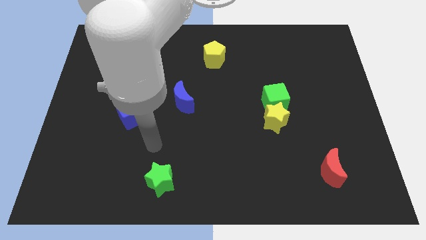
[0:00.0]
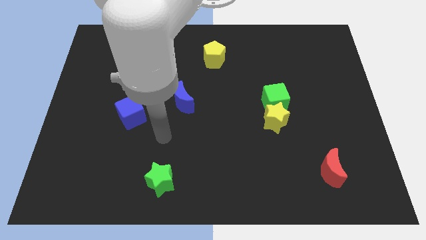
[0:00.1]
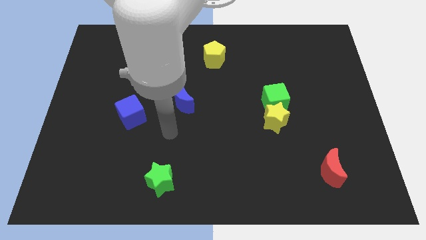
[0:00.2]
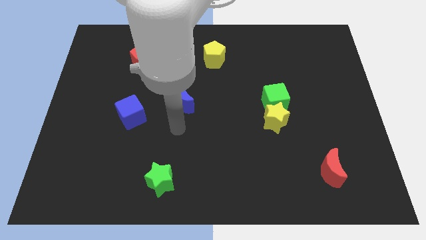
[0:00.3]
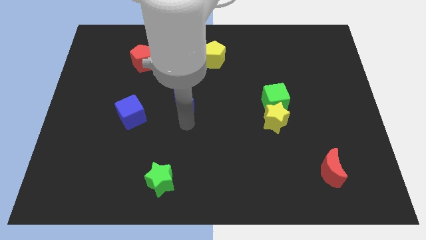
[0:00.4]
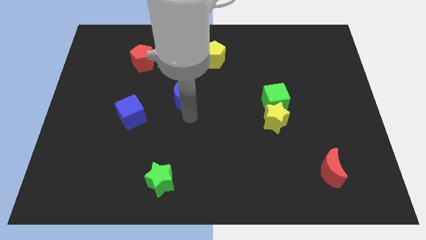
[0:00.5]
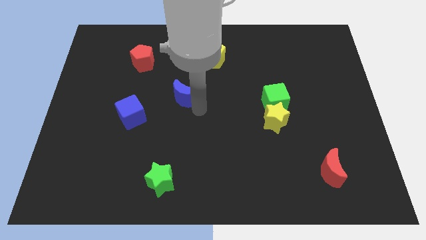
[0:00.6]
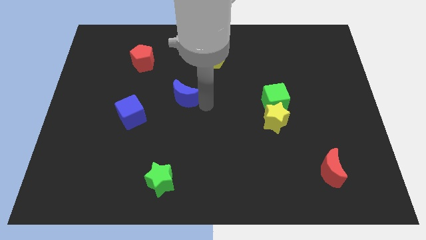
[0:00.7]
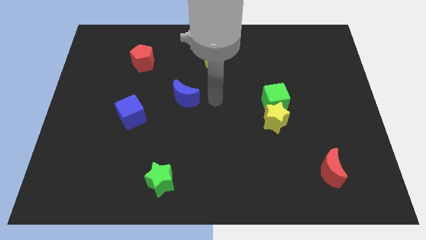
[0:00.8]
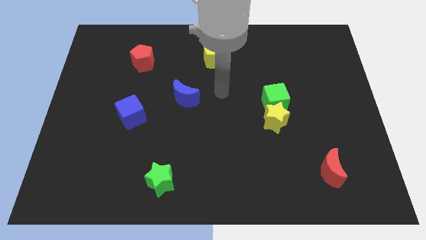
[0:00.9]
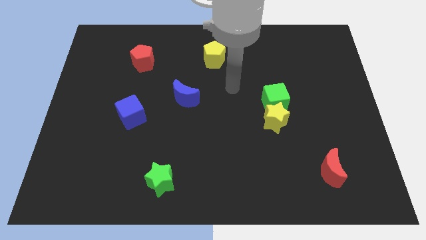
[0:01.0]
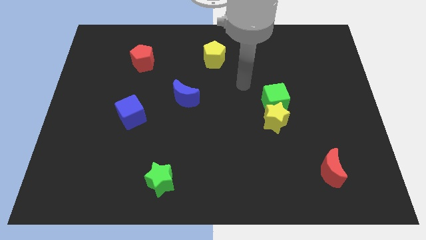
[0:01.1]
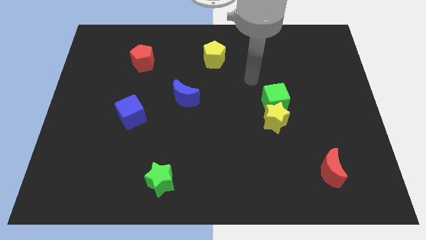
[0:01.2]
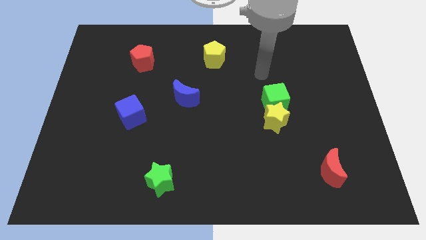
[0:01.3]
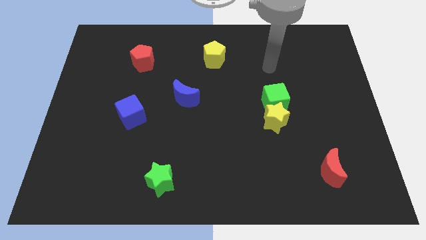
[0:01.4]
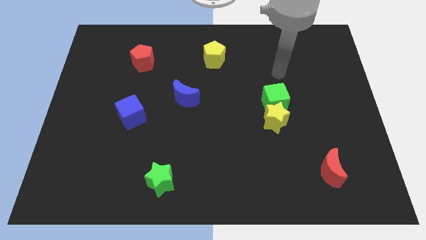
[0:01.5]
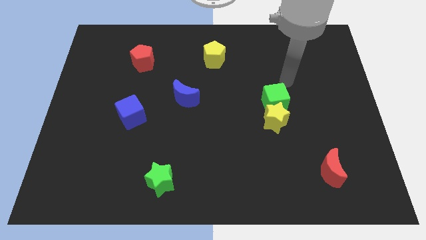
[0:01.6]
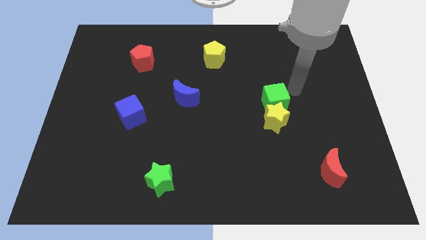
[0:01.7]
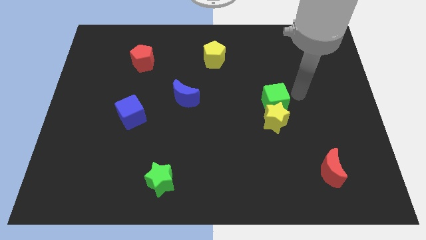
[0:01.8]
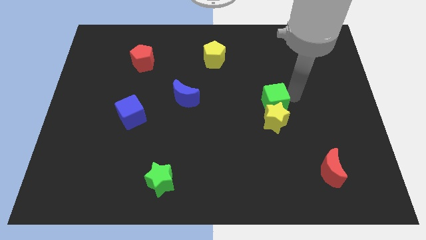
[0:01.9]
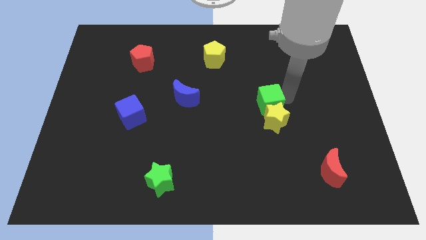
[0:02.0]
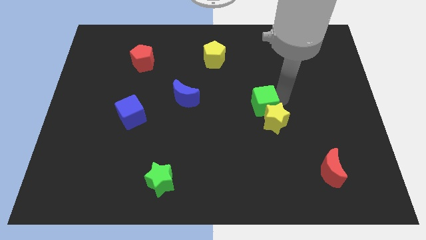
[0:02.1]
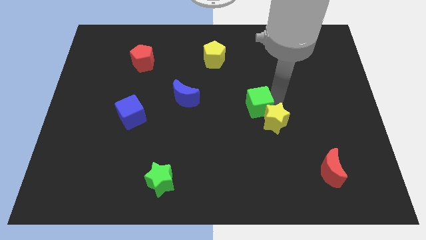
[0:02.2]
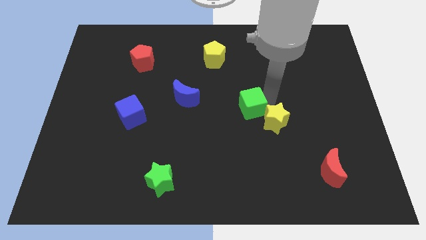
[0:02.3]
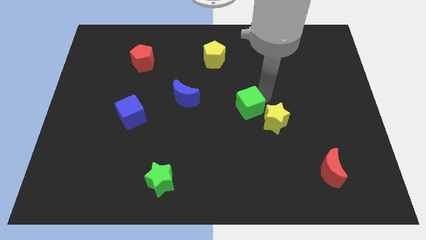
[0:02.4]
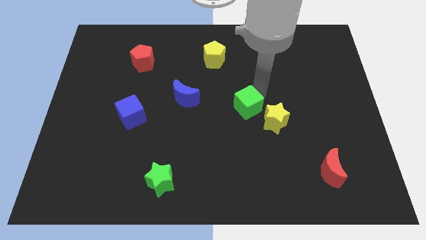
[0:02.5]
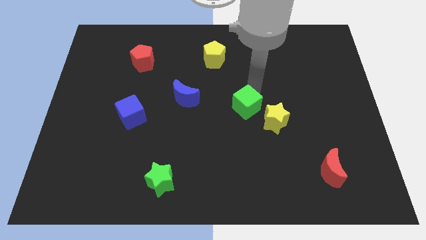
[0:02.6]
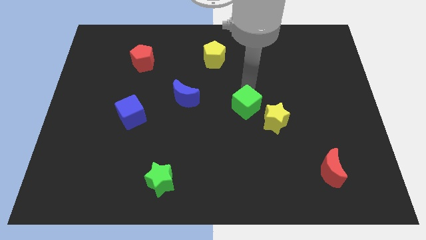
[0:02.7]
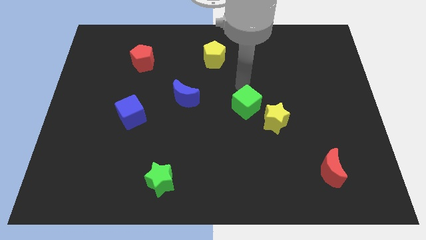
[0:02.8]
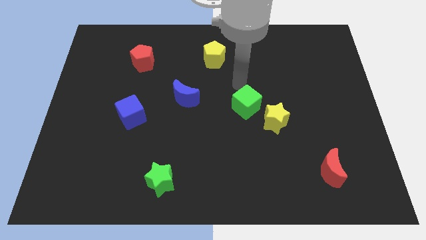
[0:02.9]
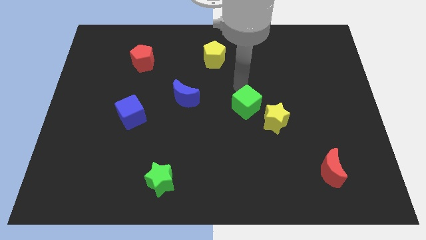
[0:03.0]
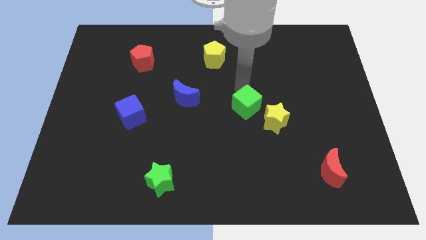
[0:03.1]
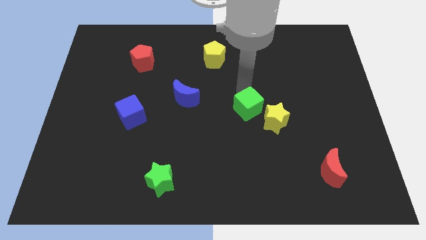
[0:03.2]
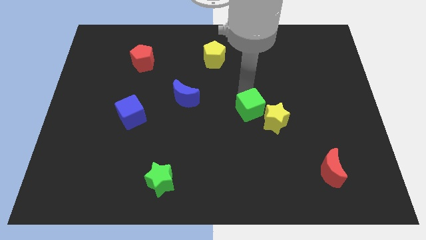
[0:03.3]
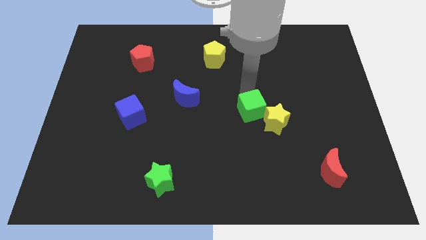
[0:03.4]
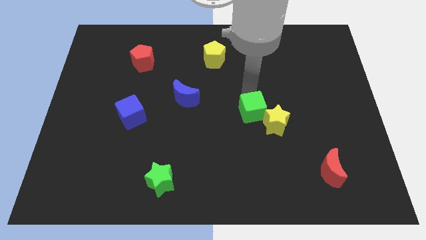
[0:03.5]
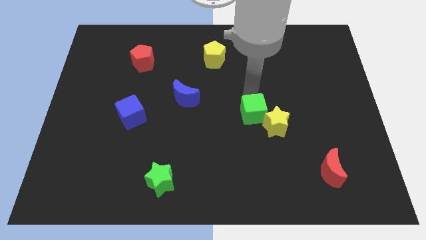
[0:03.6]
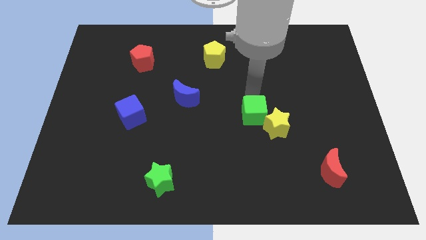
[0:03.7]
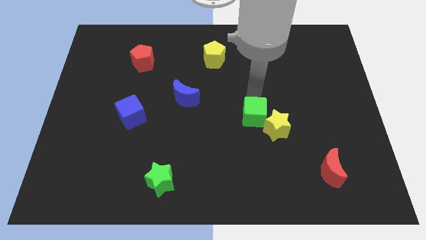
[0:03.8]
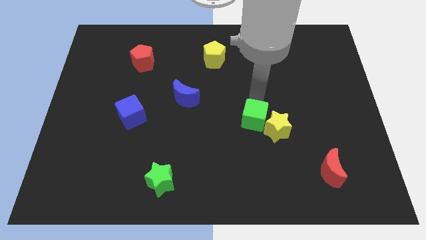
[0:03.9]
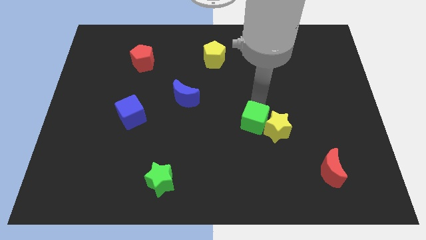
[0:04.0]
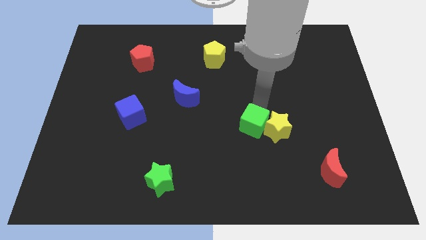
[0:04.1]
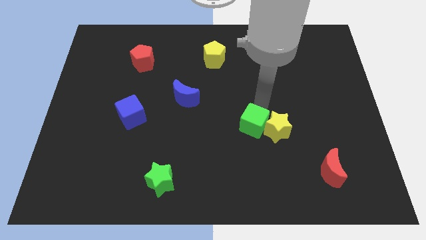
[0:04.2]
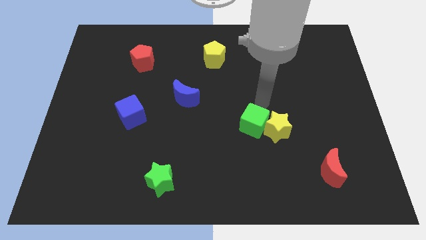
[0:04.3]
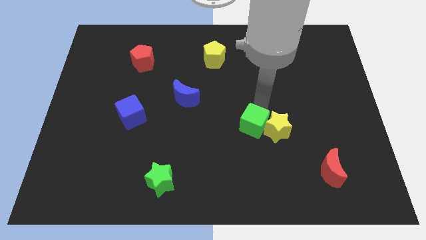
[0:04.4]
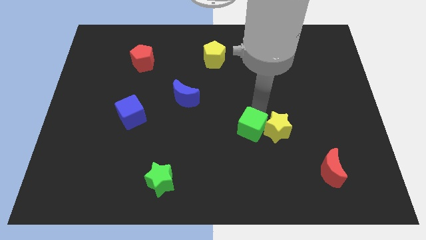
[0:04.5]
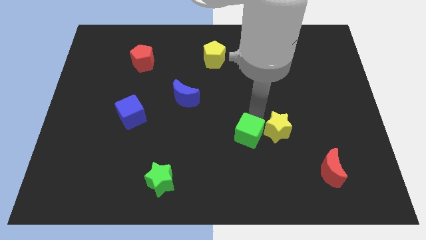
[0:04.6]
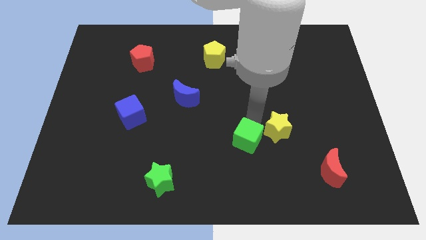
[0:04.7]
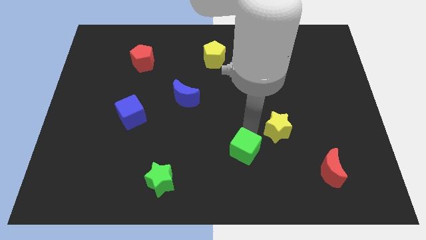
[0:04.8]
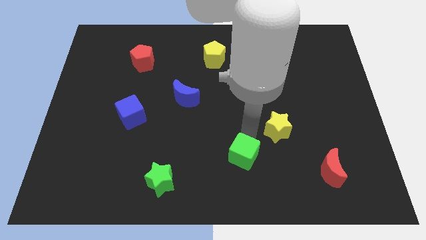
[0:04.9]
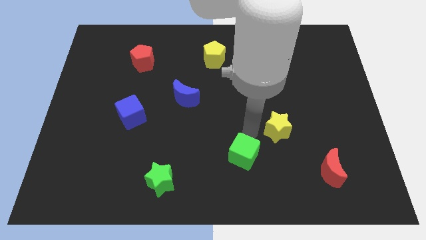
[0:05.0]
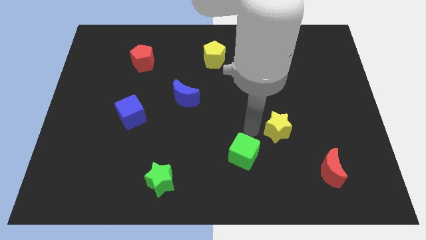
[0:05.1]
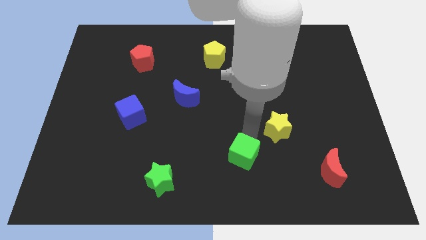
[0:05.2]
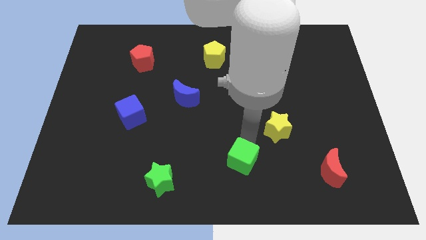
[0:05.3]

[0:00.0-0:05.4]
push the green cube to the bottom
